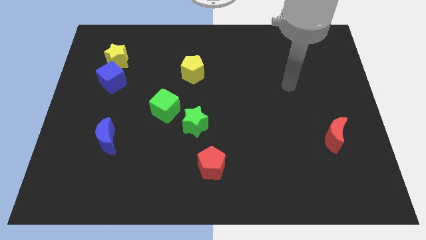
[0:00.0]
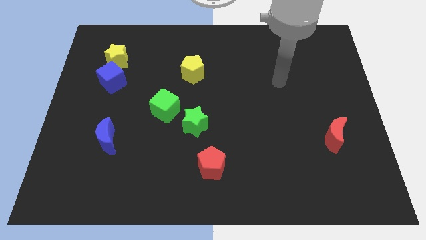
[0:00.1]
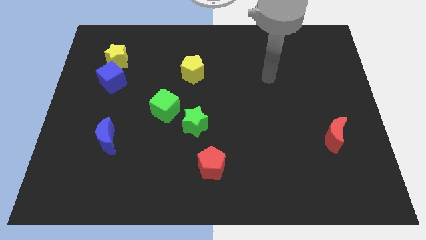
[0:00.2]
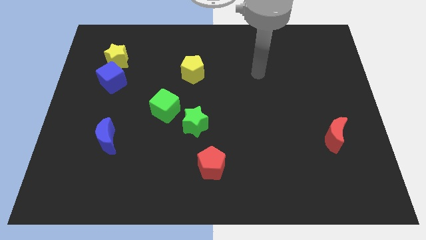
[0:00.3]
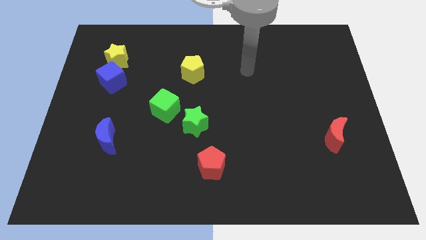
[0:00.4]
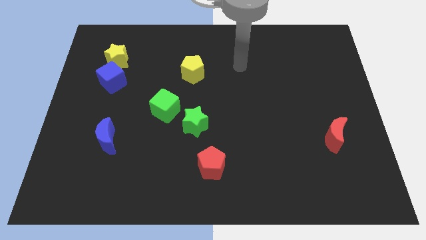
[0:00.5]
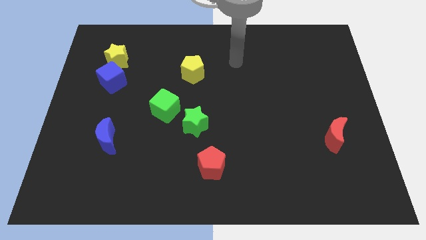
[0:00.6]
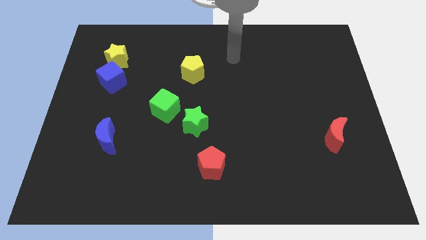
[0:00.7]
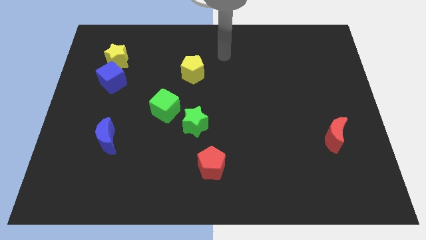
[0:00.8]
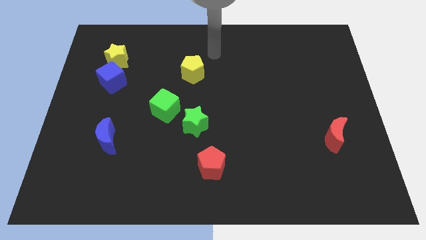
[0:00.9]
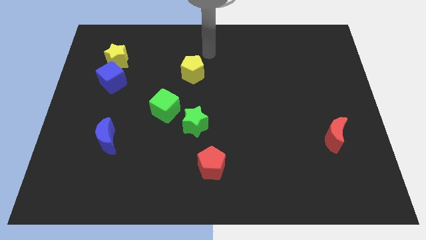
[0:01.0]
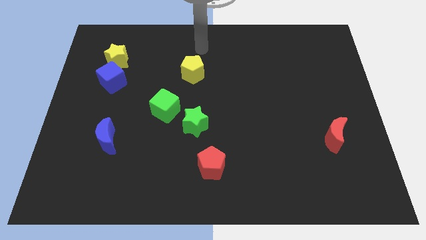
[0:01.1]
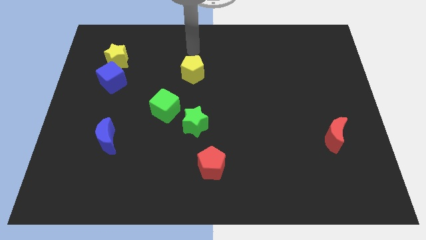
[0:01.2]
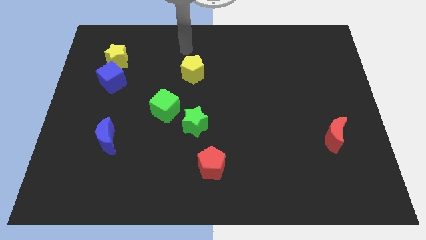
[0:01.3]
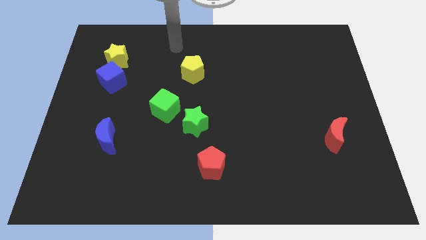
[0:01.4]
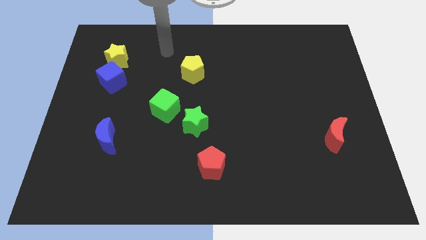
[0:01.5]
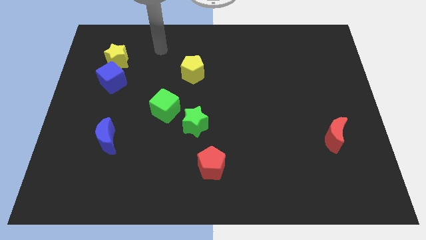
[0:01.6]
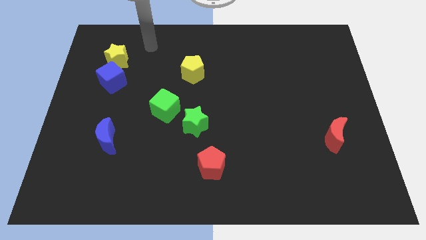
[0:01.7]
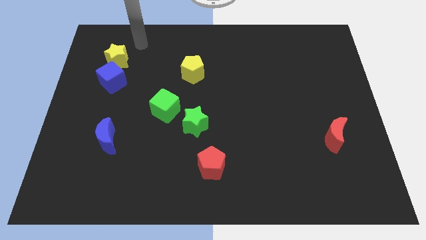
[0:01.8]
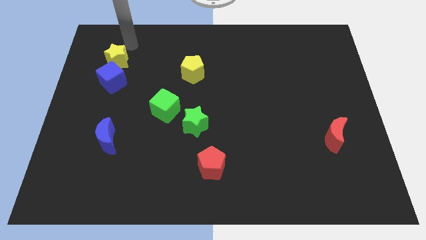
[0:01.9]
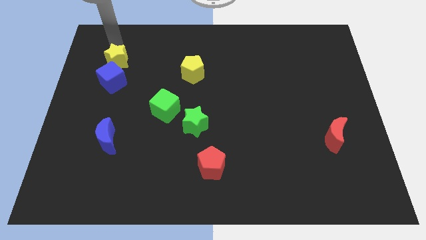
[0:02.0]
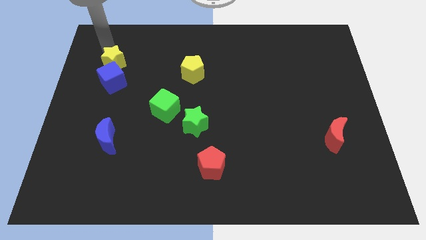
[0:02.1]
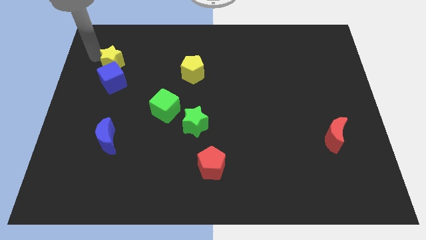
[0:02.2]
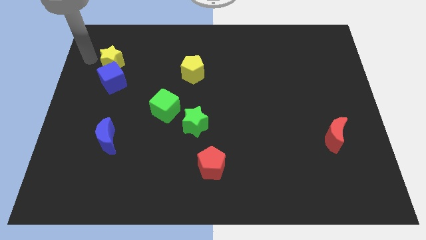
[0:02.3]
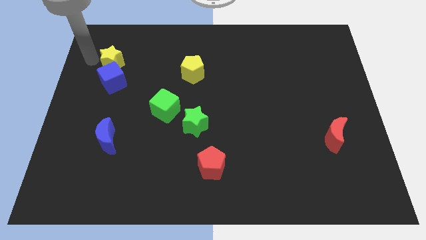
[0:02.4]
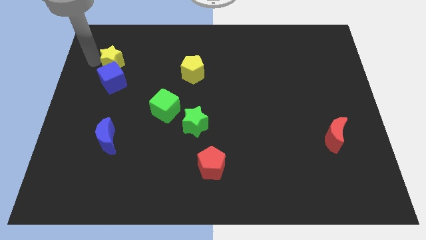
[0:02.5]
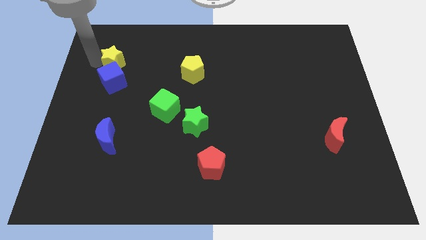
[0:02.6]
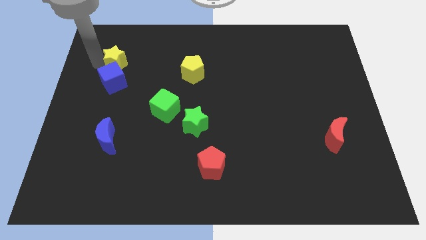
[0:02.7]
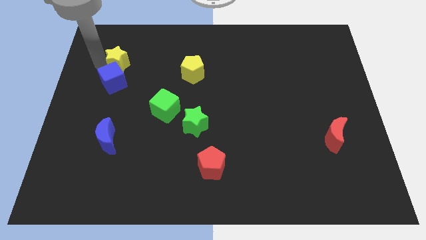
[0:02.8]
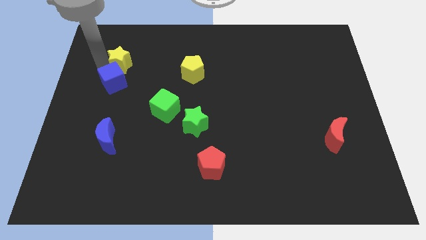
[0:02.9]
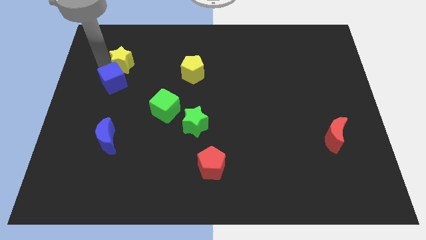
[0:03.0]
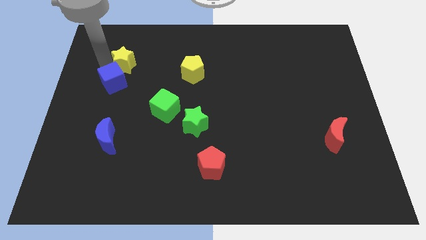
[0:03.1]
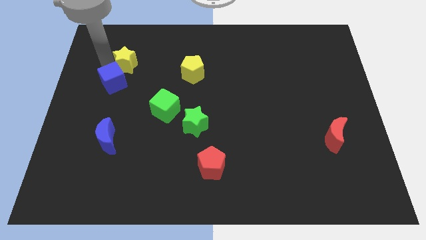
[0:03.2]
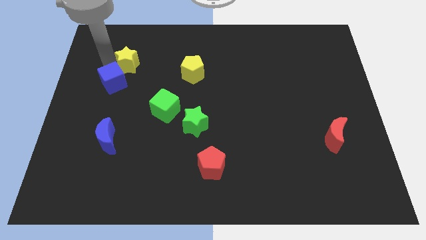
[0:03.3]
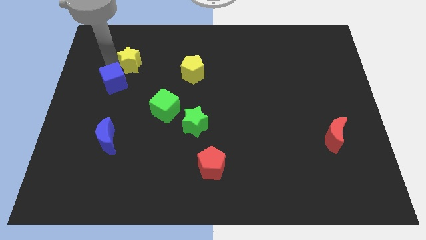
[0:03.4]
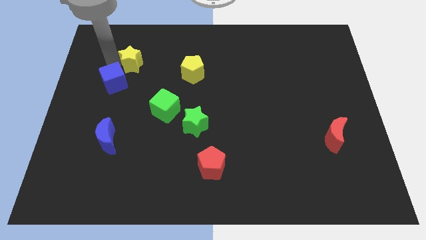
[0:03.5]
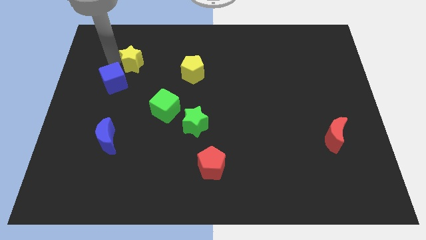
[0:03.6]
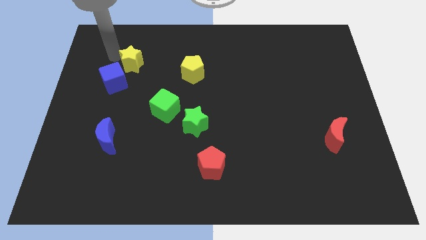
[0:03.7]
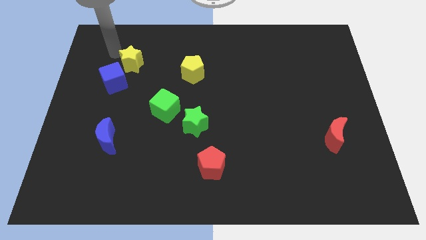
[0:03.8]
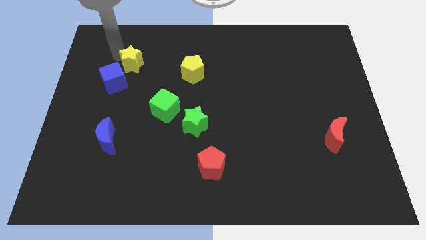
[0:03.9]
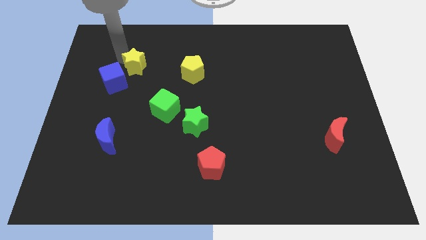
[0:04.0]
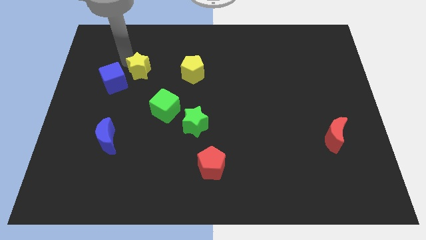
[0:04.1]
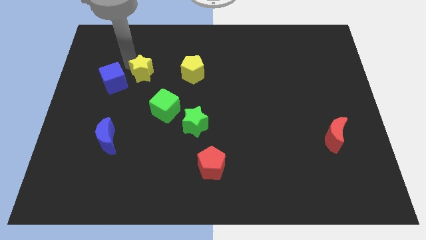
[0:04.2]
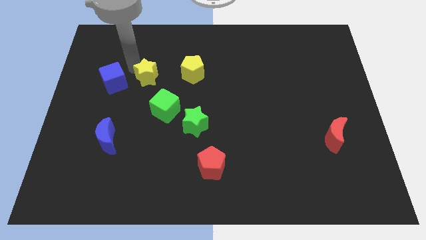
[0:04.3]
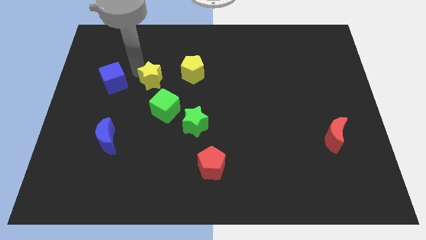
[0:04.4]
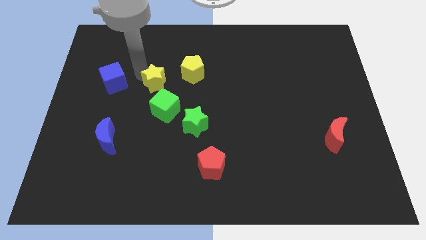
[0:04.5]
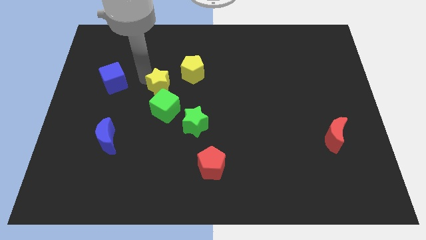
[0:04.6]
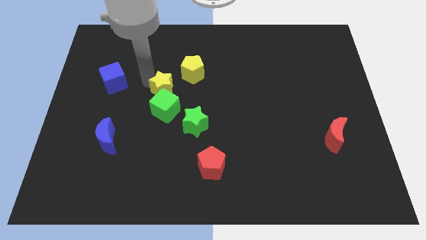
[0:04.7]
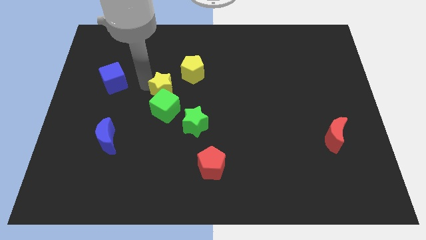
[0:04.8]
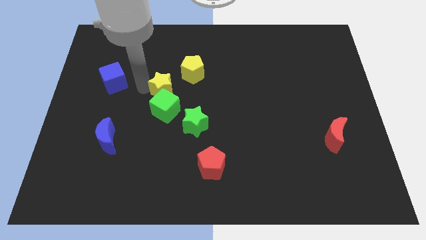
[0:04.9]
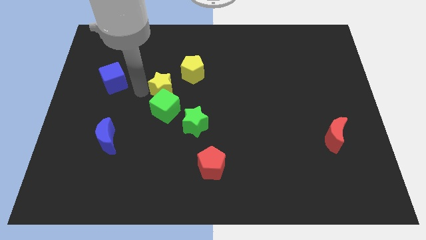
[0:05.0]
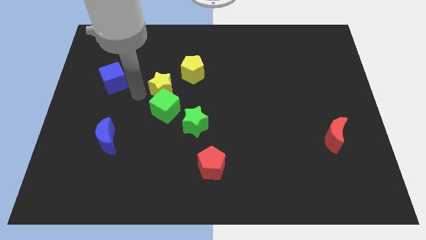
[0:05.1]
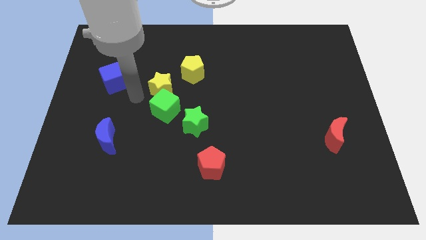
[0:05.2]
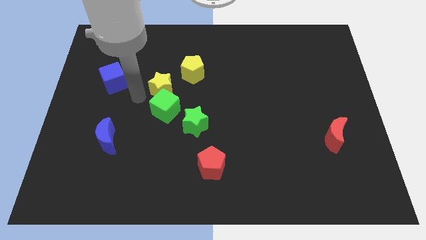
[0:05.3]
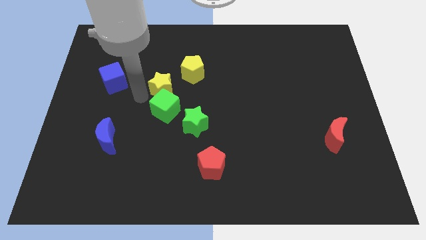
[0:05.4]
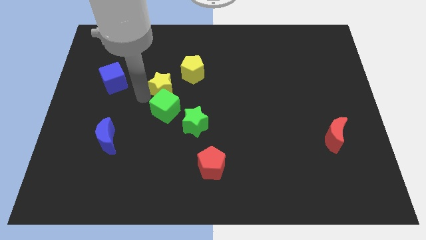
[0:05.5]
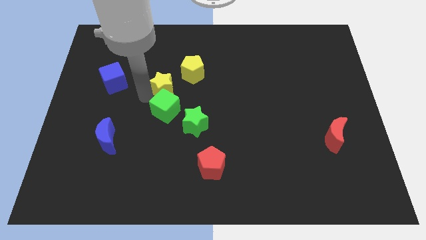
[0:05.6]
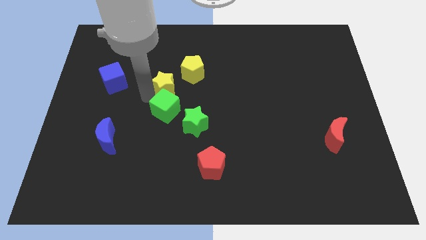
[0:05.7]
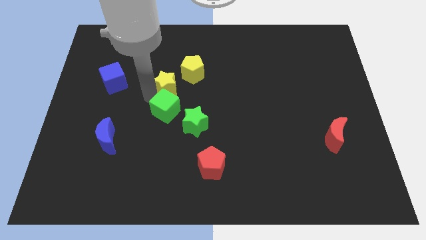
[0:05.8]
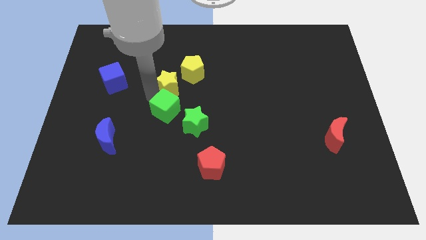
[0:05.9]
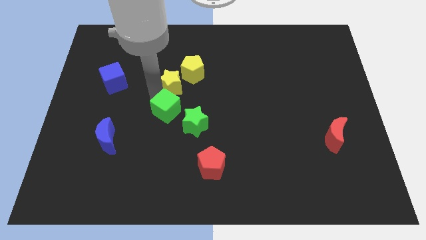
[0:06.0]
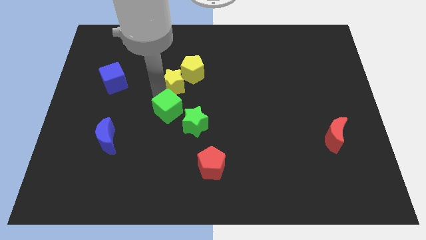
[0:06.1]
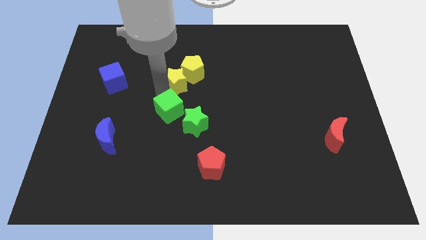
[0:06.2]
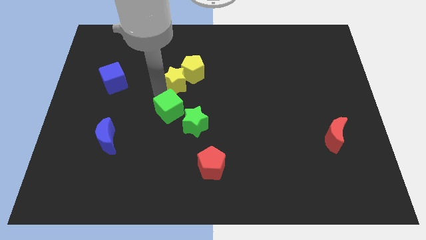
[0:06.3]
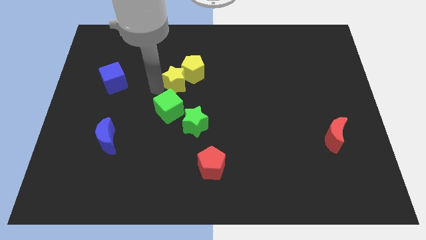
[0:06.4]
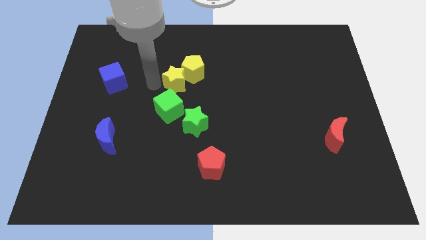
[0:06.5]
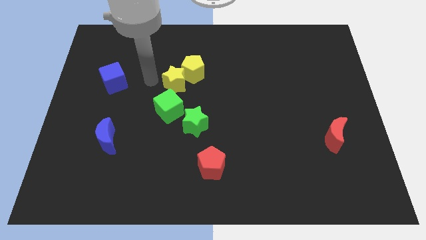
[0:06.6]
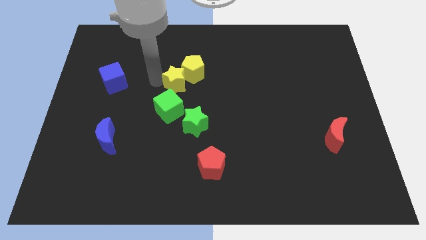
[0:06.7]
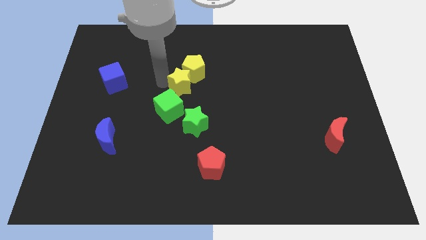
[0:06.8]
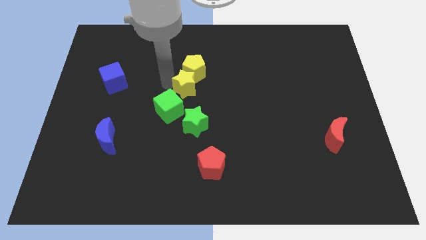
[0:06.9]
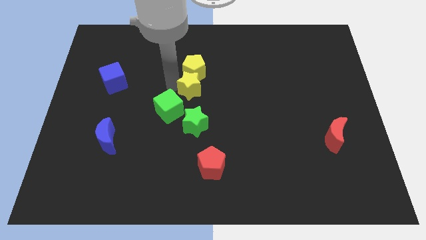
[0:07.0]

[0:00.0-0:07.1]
put the yellow star to the bottom right side of the yellow pentagon

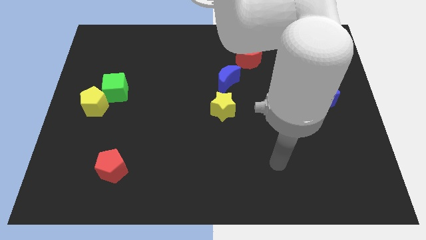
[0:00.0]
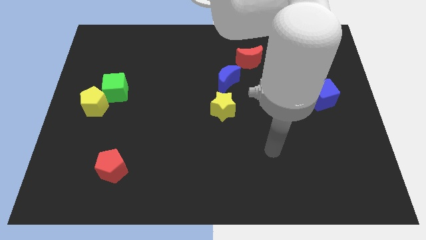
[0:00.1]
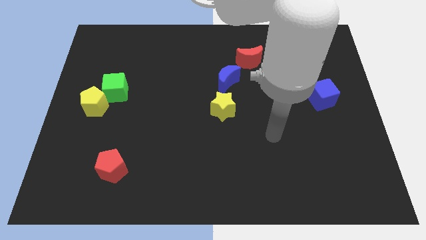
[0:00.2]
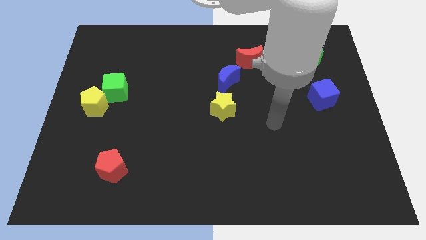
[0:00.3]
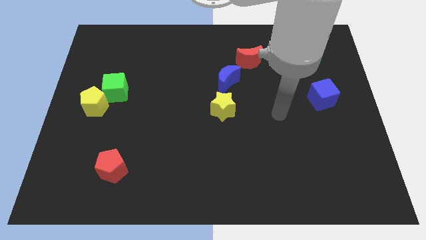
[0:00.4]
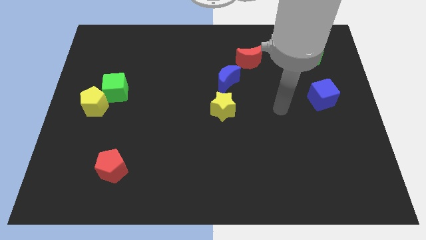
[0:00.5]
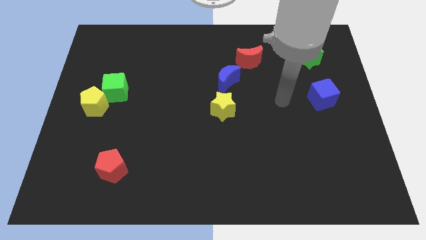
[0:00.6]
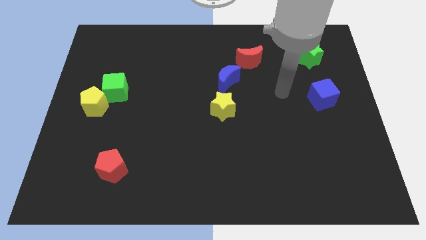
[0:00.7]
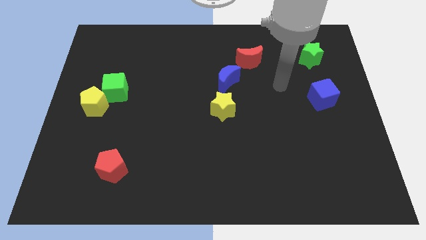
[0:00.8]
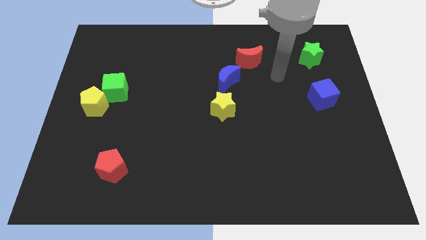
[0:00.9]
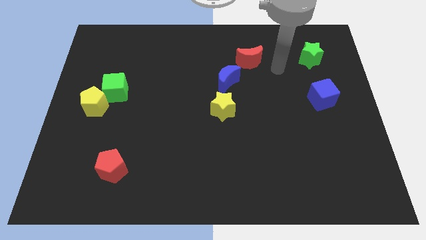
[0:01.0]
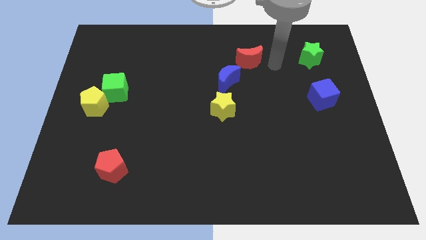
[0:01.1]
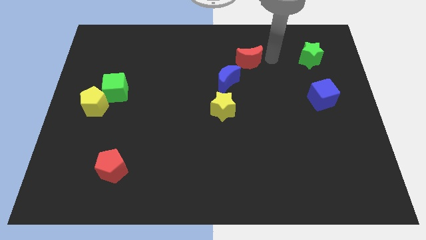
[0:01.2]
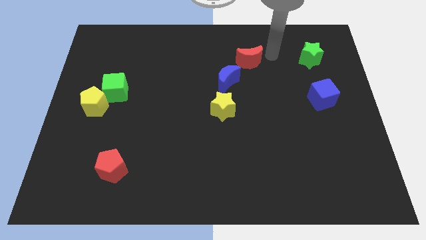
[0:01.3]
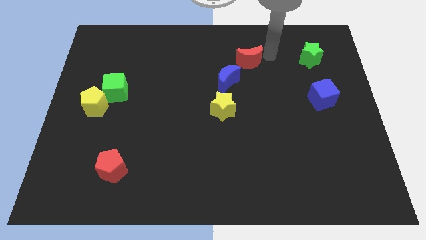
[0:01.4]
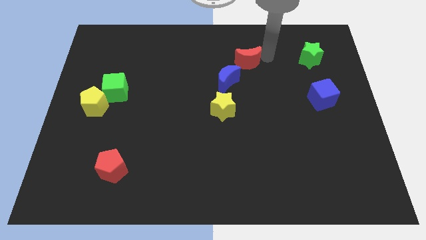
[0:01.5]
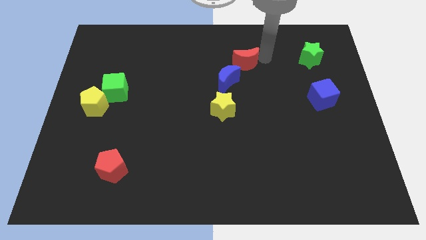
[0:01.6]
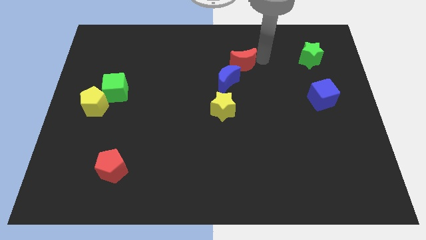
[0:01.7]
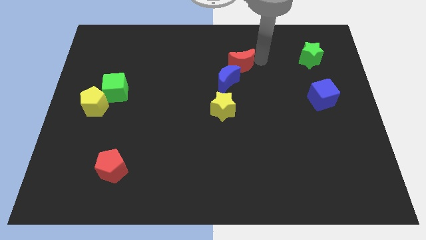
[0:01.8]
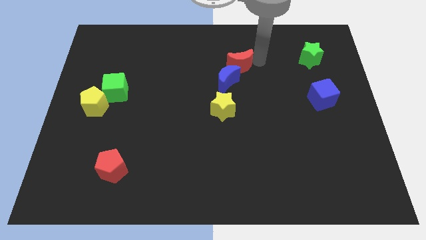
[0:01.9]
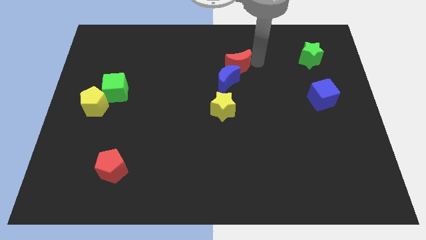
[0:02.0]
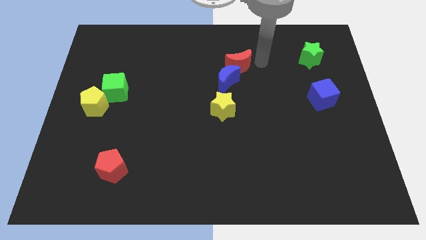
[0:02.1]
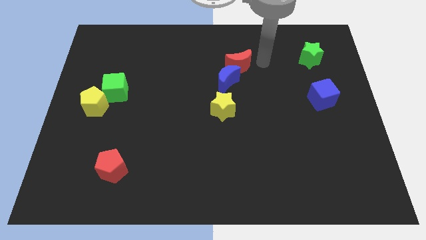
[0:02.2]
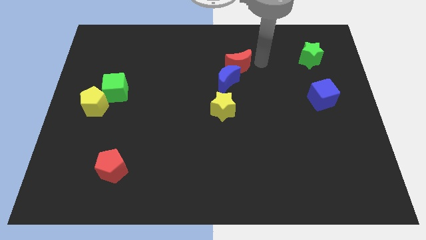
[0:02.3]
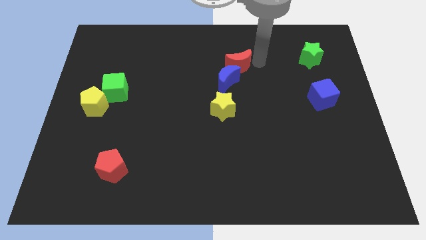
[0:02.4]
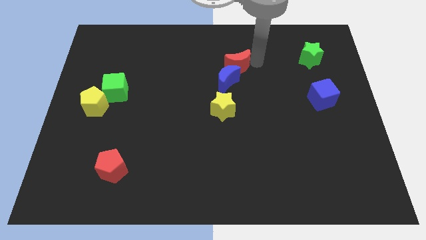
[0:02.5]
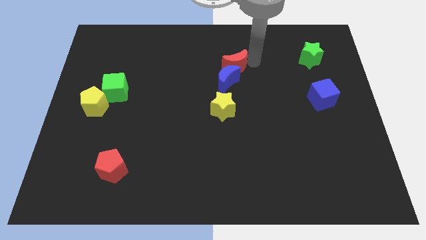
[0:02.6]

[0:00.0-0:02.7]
slide the red moon to the top side of the yellow star
